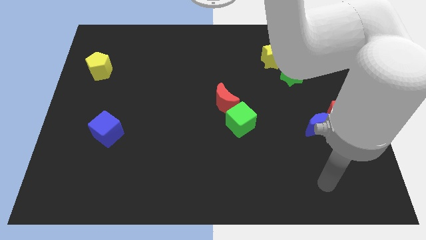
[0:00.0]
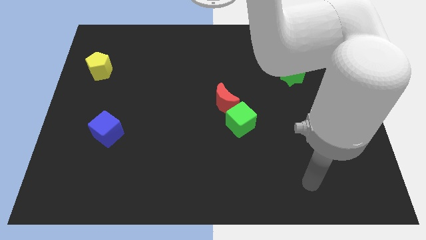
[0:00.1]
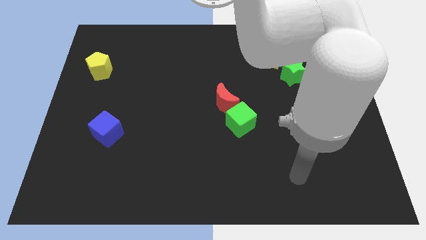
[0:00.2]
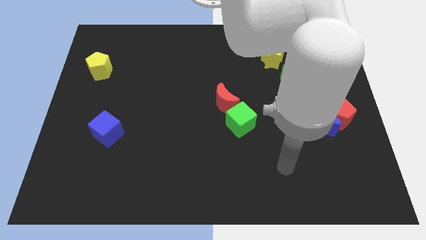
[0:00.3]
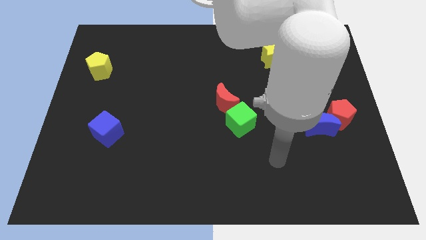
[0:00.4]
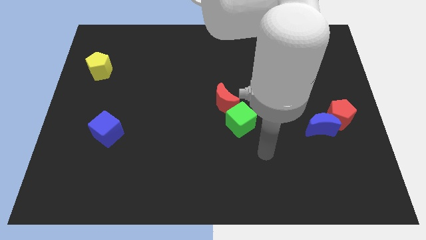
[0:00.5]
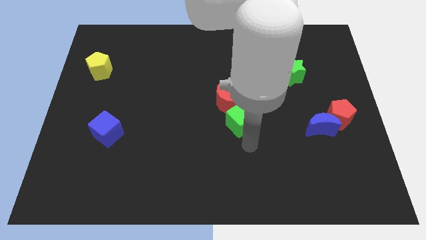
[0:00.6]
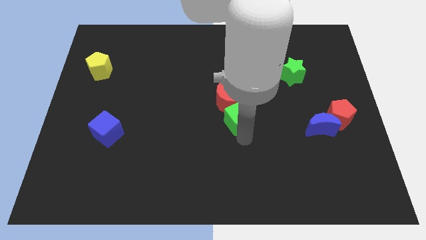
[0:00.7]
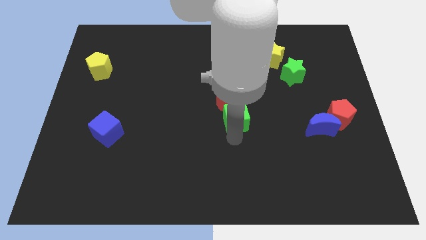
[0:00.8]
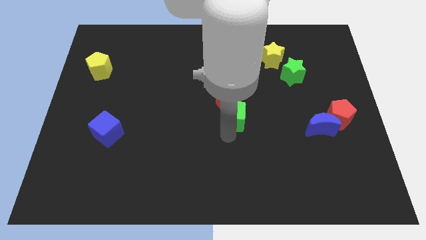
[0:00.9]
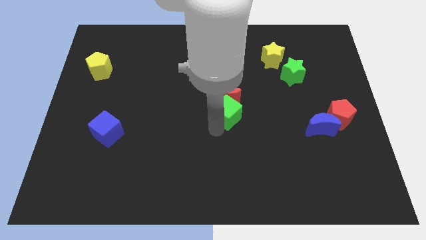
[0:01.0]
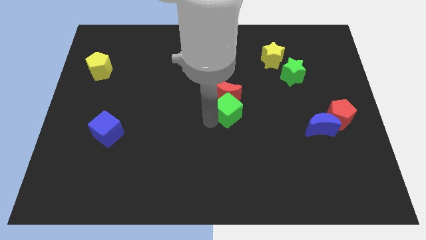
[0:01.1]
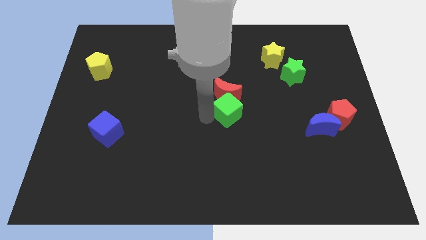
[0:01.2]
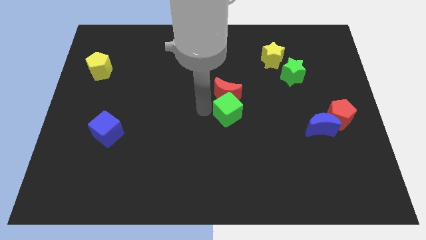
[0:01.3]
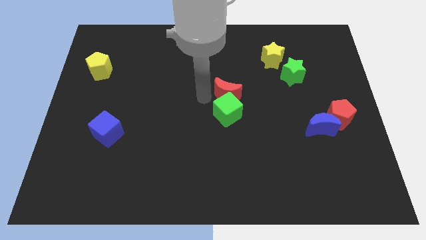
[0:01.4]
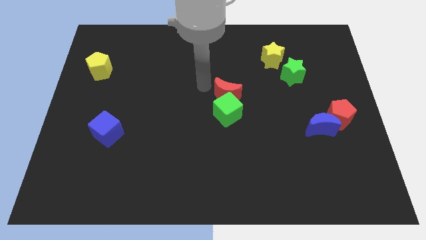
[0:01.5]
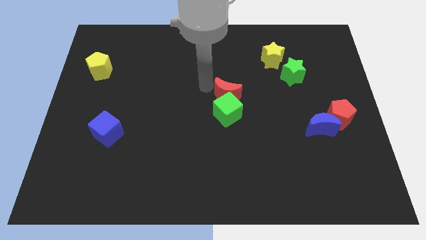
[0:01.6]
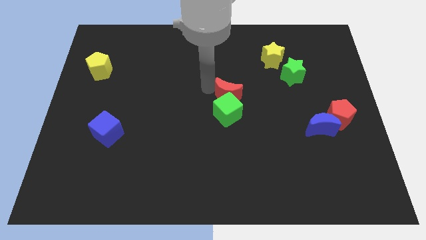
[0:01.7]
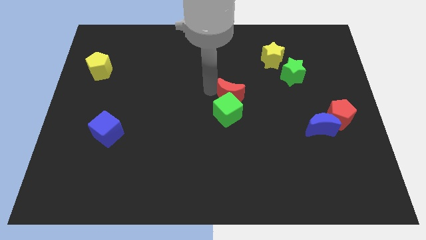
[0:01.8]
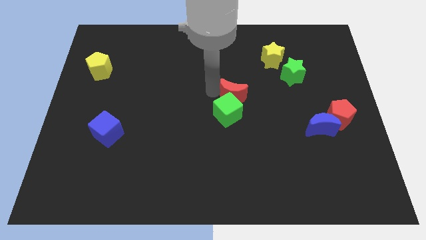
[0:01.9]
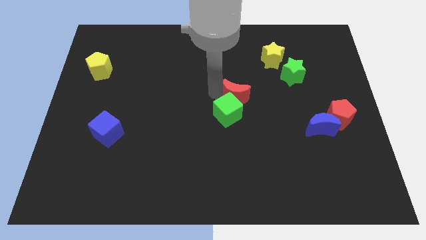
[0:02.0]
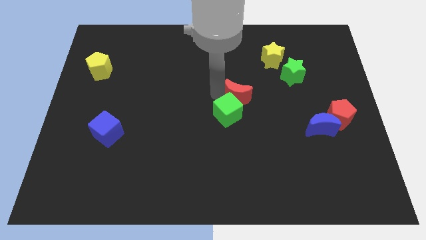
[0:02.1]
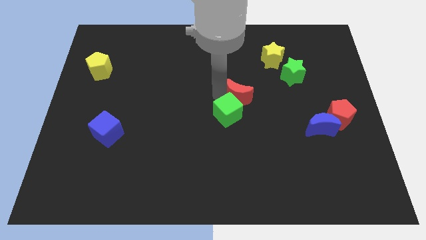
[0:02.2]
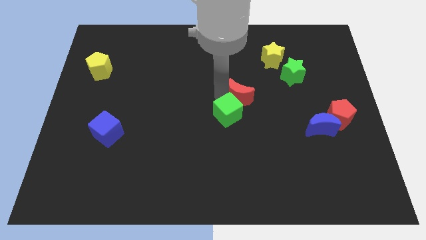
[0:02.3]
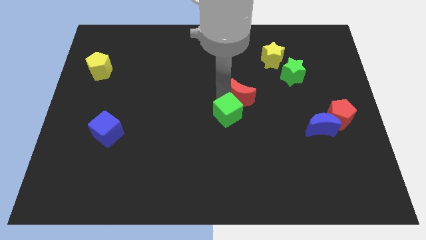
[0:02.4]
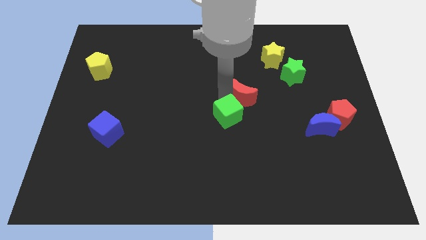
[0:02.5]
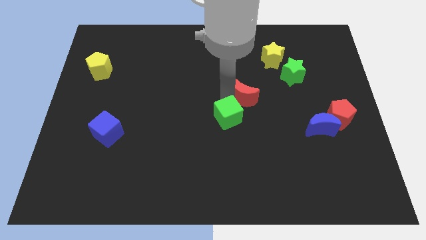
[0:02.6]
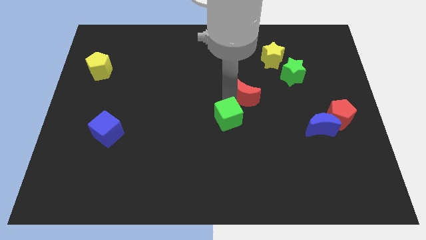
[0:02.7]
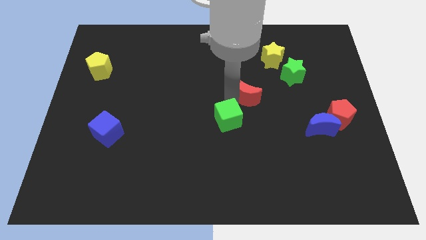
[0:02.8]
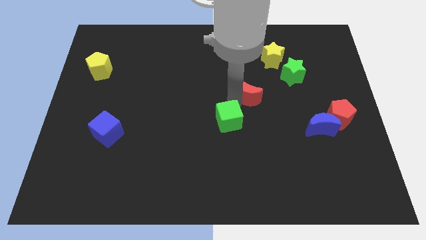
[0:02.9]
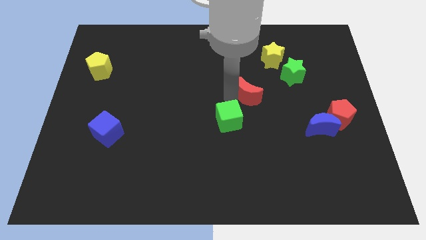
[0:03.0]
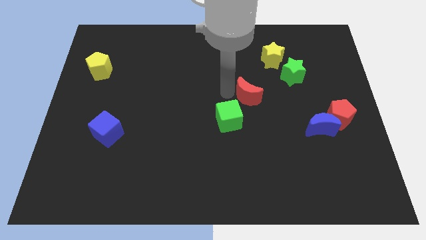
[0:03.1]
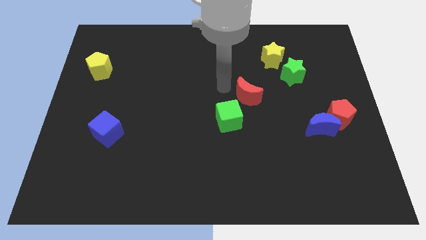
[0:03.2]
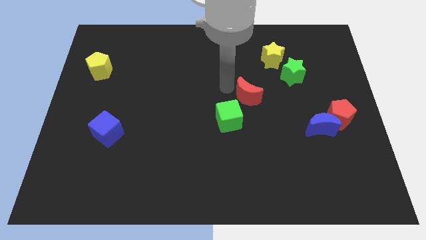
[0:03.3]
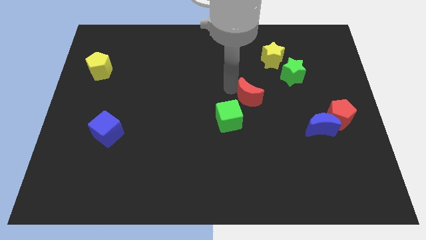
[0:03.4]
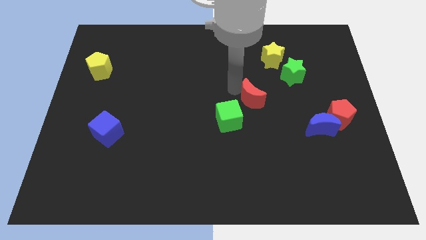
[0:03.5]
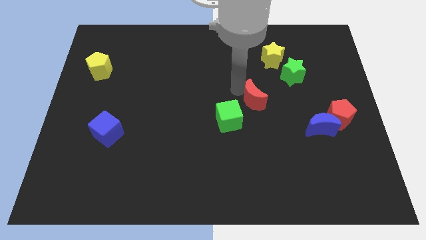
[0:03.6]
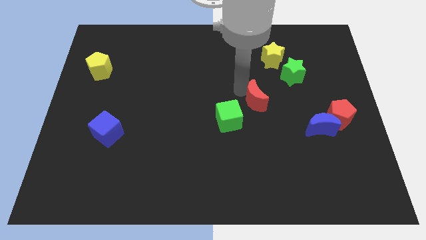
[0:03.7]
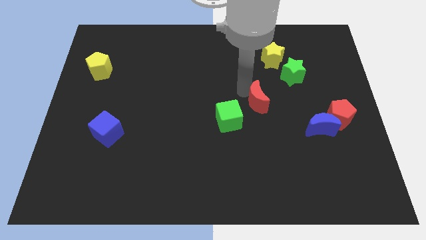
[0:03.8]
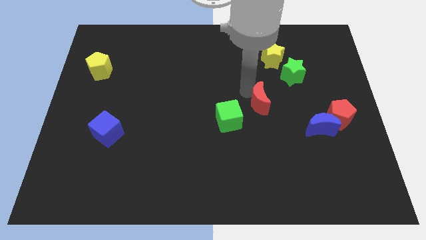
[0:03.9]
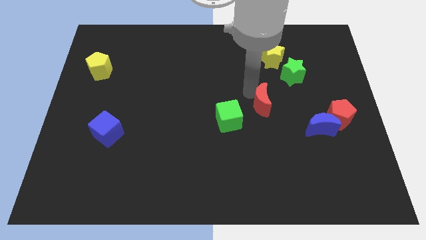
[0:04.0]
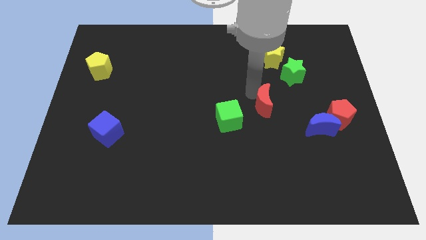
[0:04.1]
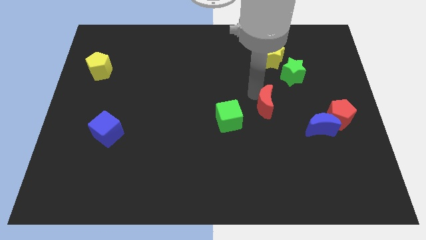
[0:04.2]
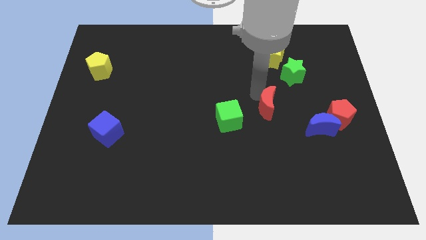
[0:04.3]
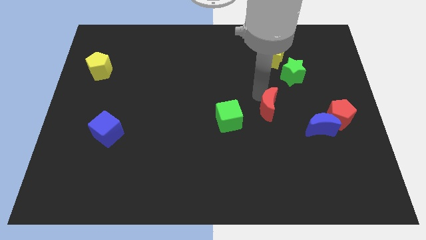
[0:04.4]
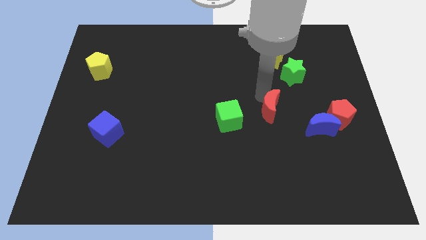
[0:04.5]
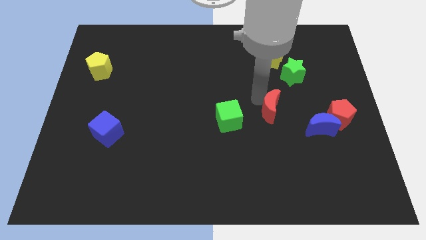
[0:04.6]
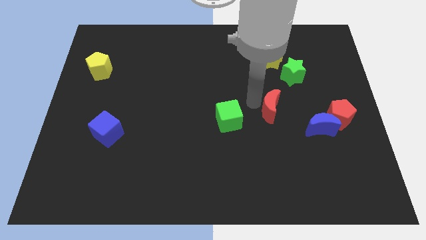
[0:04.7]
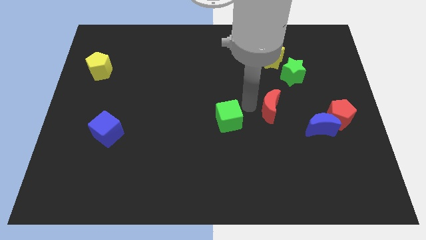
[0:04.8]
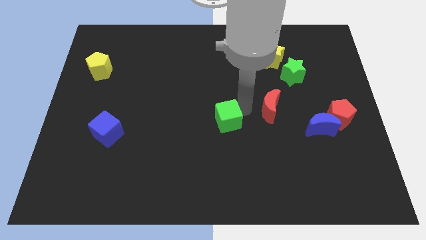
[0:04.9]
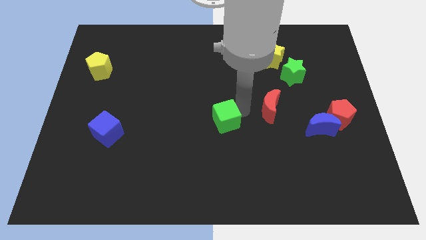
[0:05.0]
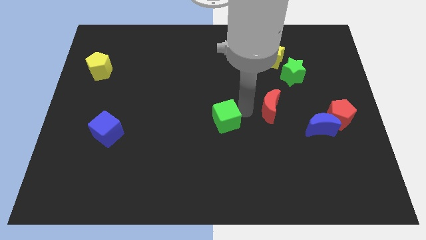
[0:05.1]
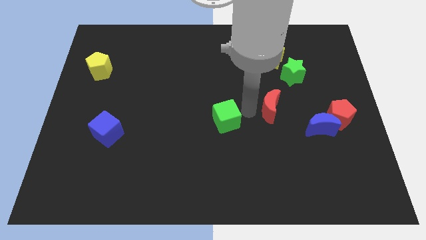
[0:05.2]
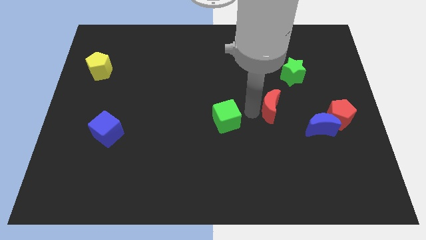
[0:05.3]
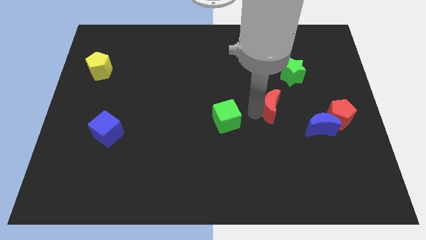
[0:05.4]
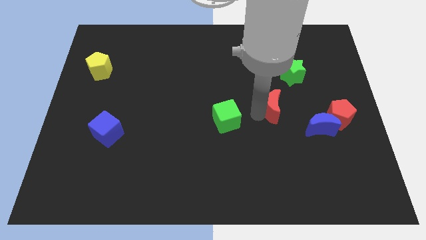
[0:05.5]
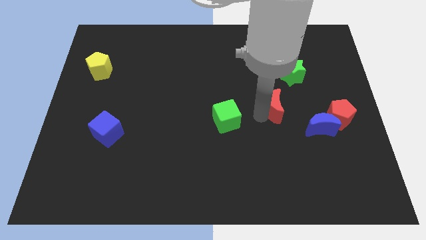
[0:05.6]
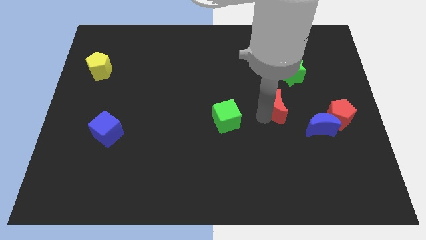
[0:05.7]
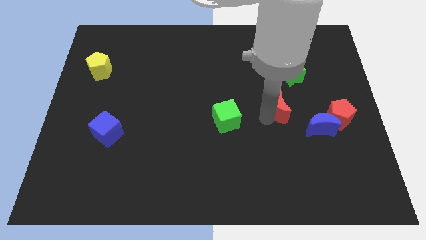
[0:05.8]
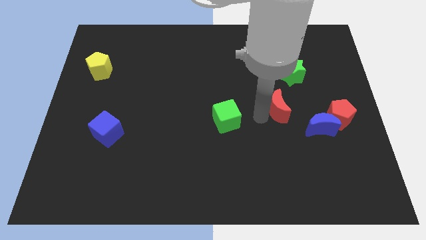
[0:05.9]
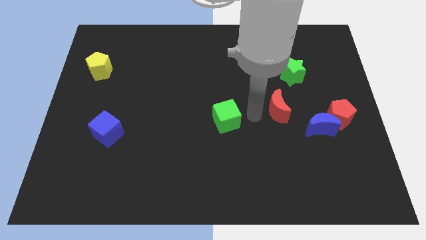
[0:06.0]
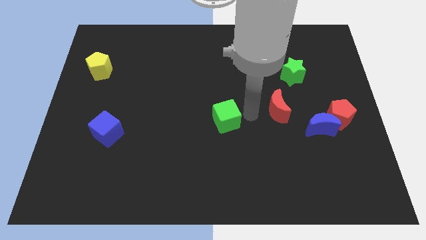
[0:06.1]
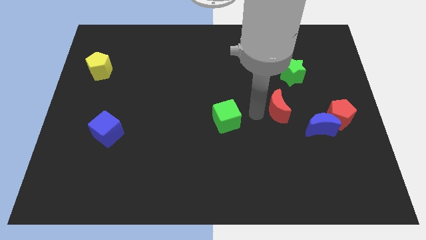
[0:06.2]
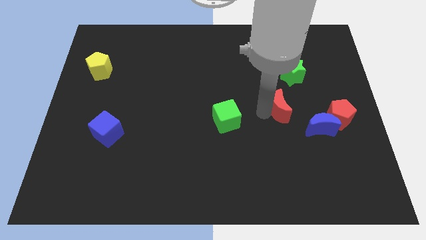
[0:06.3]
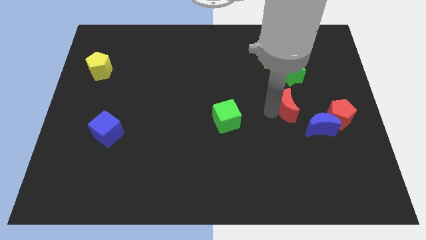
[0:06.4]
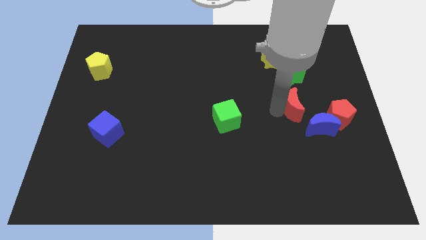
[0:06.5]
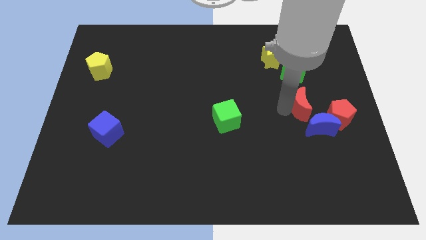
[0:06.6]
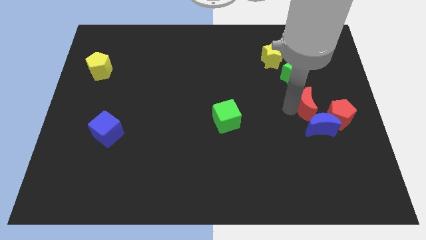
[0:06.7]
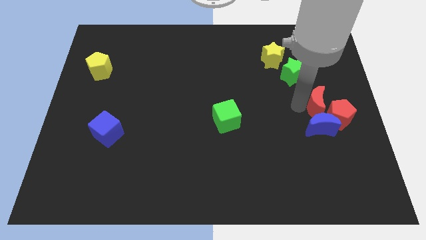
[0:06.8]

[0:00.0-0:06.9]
slide the red moon to the red pentagon

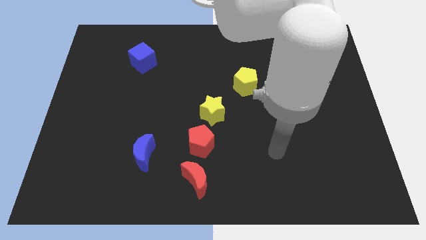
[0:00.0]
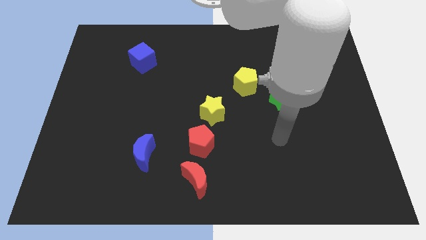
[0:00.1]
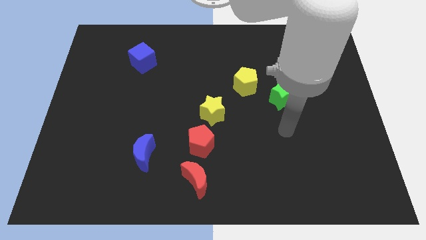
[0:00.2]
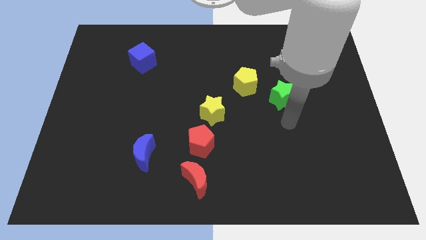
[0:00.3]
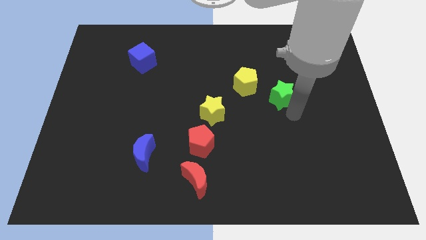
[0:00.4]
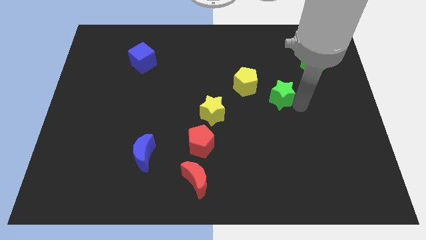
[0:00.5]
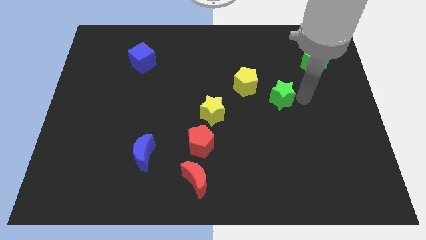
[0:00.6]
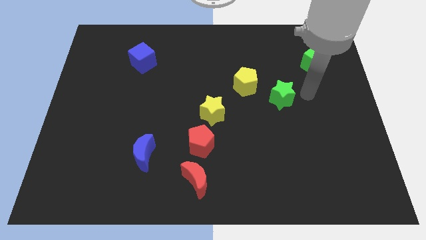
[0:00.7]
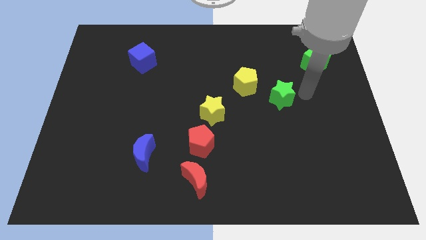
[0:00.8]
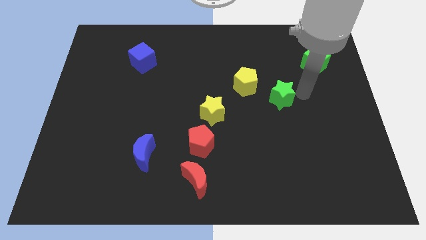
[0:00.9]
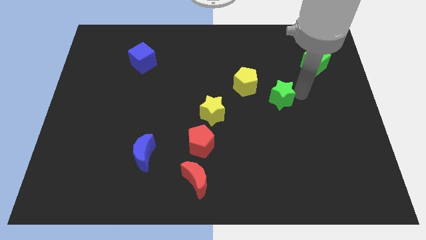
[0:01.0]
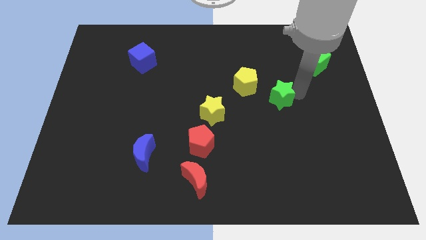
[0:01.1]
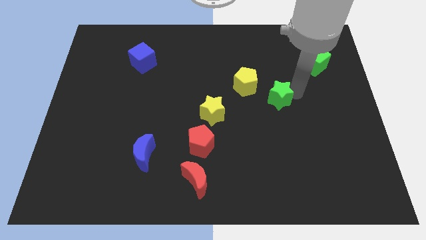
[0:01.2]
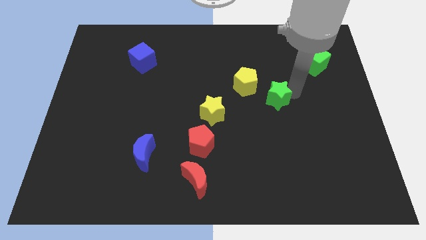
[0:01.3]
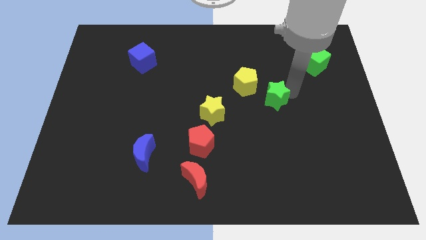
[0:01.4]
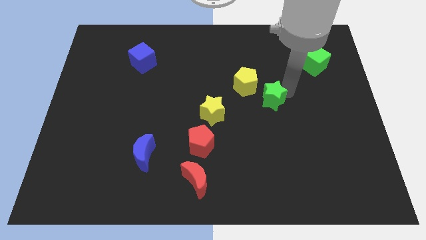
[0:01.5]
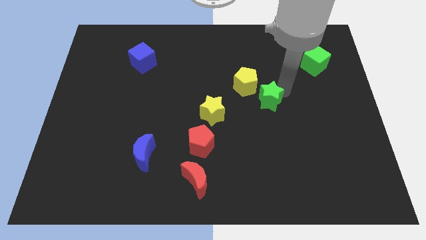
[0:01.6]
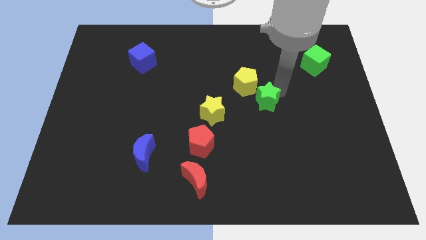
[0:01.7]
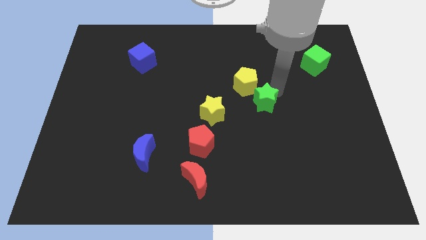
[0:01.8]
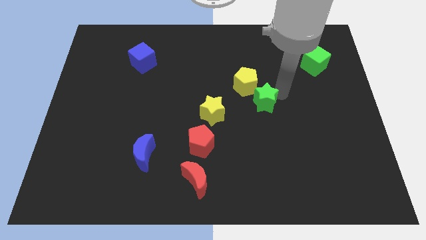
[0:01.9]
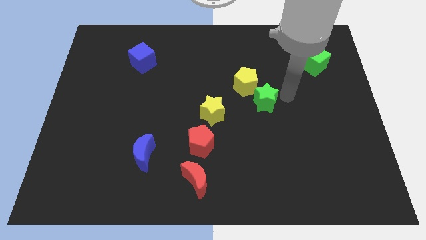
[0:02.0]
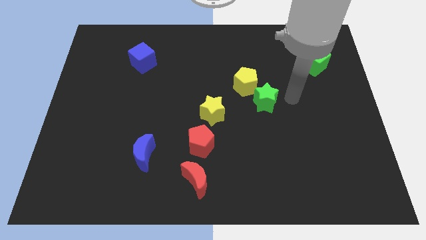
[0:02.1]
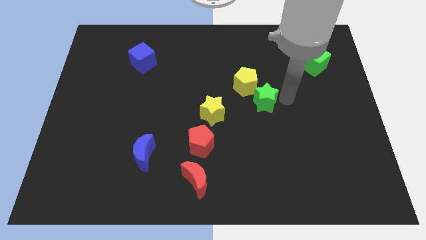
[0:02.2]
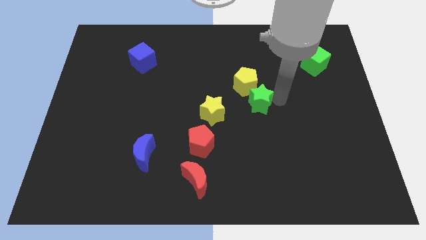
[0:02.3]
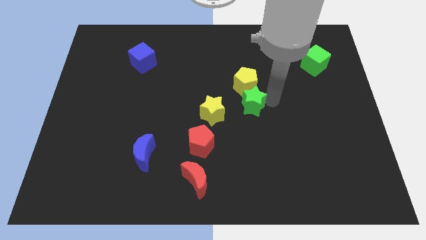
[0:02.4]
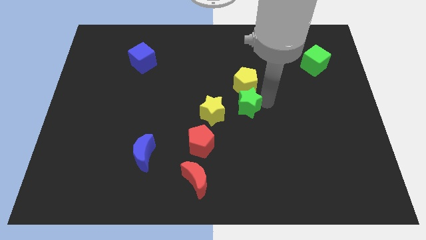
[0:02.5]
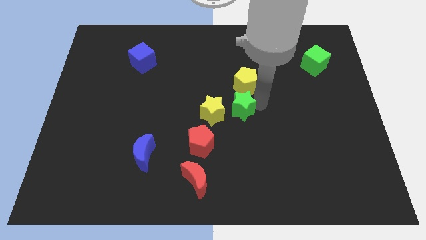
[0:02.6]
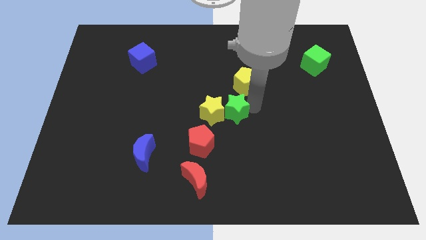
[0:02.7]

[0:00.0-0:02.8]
push the green star next to the yellow star
